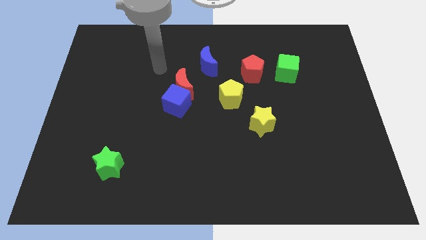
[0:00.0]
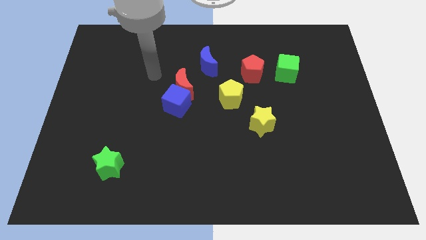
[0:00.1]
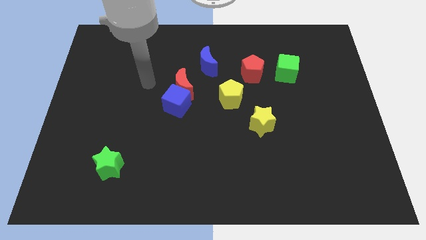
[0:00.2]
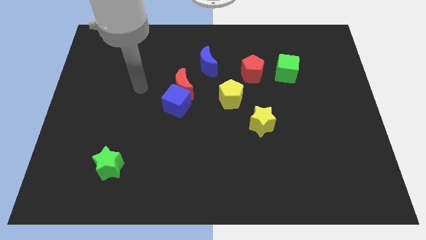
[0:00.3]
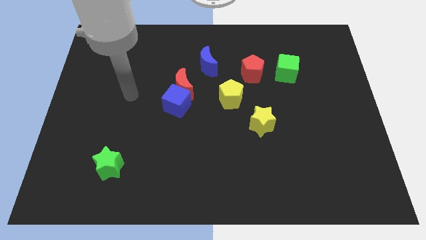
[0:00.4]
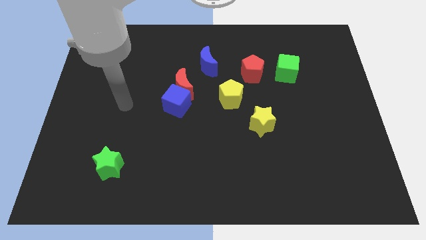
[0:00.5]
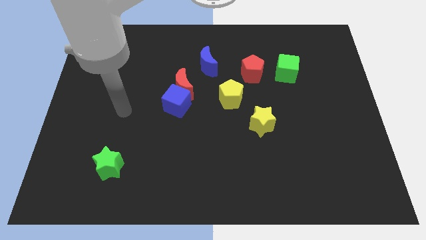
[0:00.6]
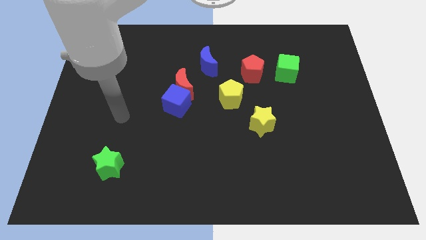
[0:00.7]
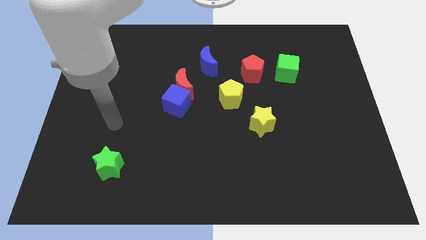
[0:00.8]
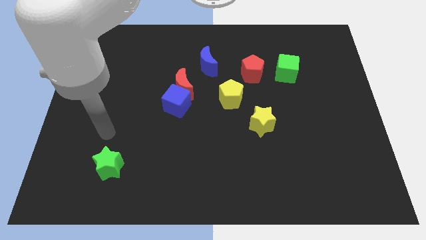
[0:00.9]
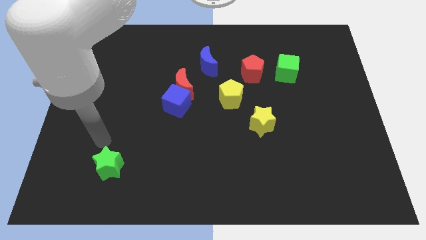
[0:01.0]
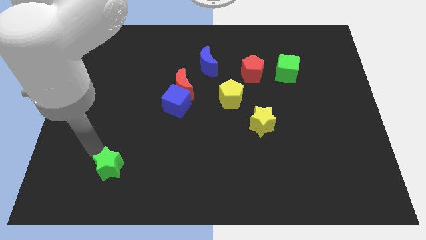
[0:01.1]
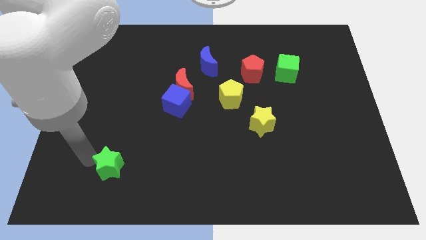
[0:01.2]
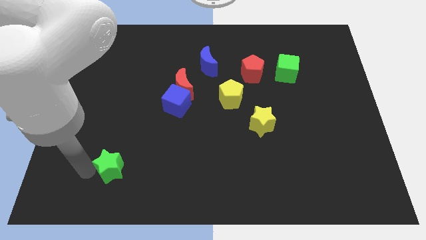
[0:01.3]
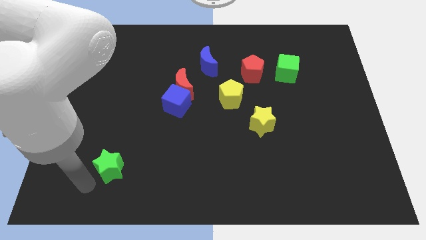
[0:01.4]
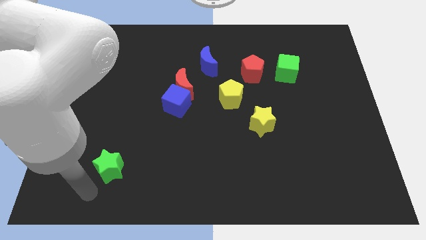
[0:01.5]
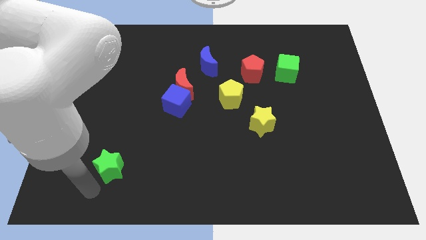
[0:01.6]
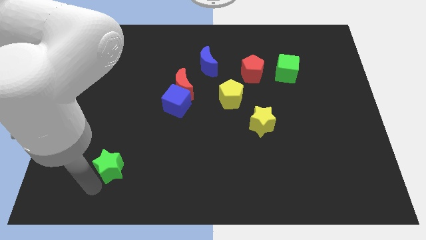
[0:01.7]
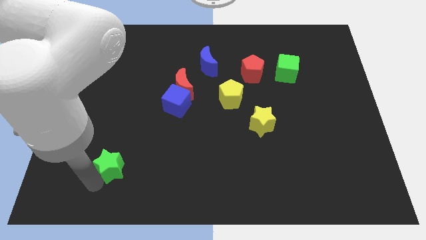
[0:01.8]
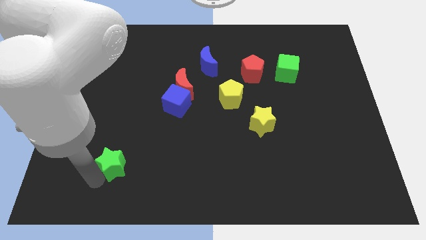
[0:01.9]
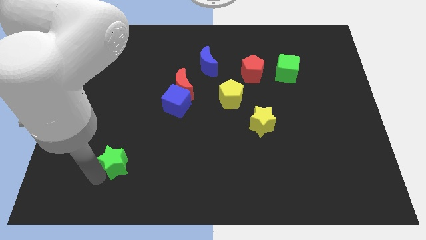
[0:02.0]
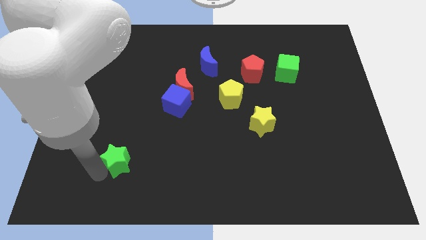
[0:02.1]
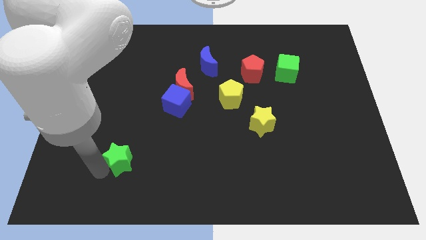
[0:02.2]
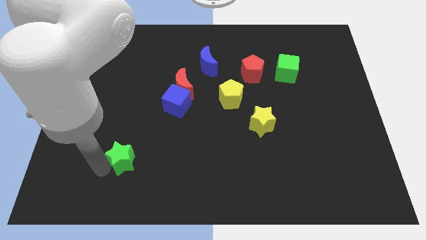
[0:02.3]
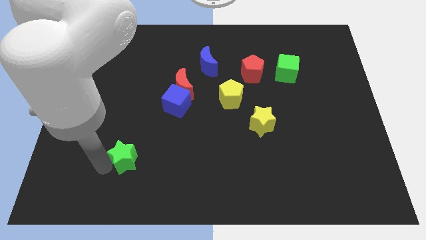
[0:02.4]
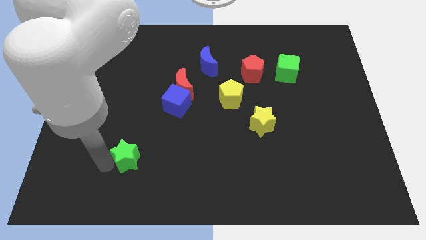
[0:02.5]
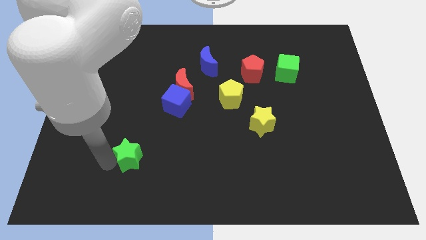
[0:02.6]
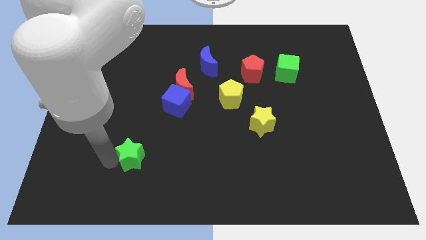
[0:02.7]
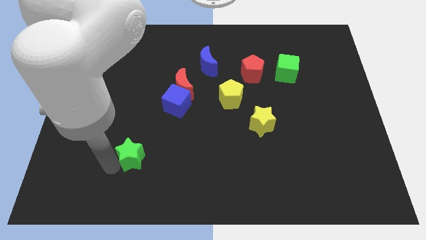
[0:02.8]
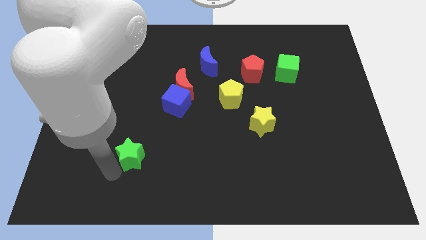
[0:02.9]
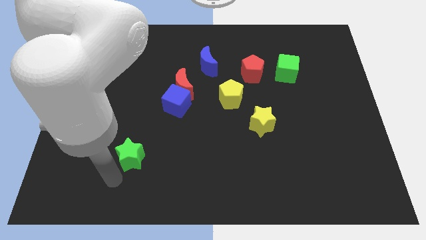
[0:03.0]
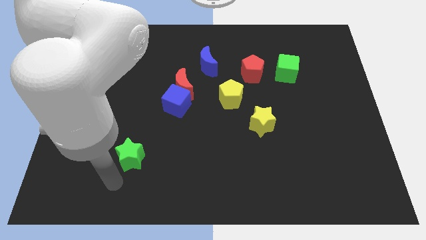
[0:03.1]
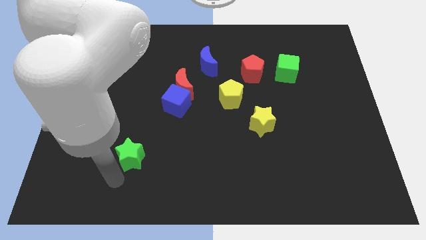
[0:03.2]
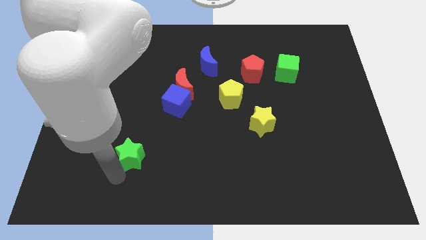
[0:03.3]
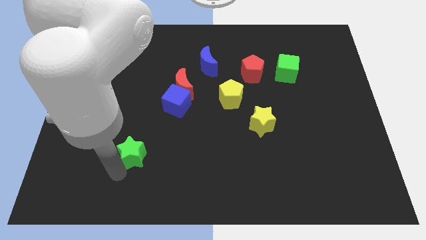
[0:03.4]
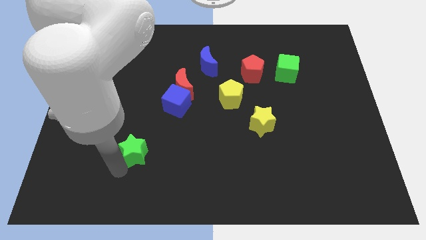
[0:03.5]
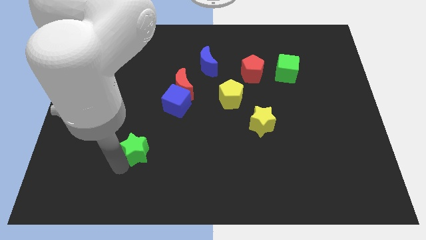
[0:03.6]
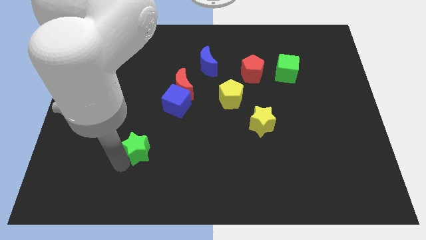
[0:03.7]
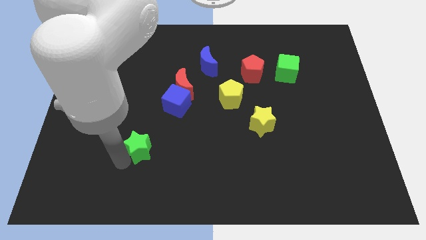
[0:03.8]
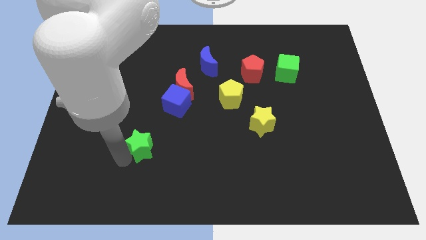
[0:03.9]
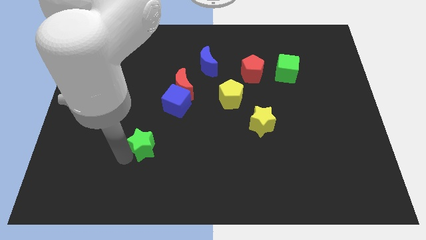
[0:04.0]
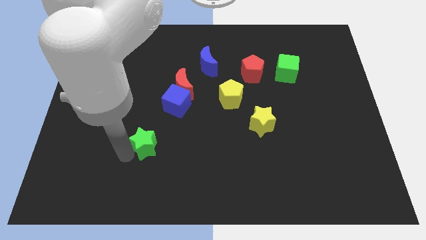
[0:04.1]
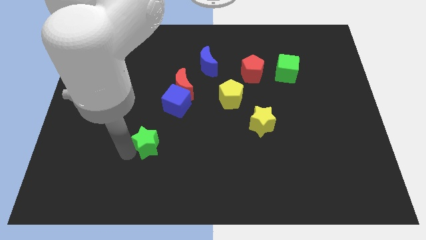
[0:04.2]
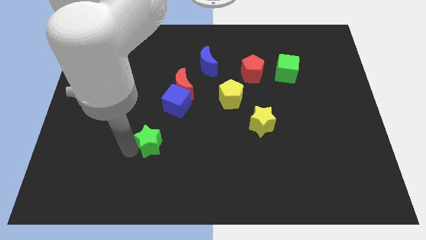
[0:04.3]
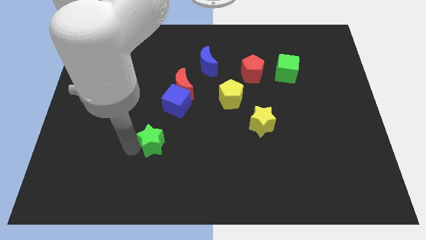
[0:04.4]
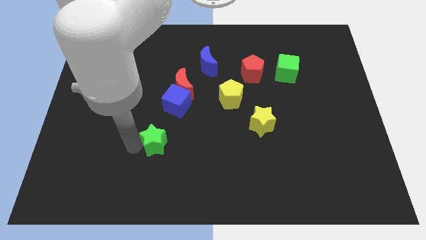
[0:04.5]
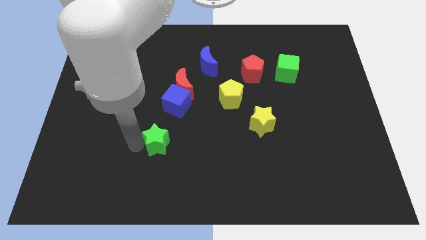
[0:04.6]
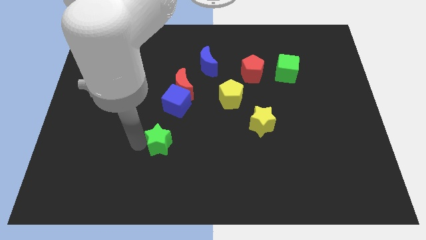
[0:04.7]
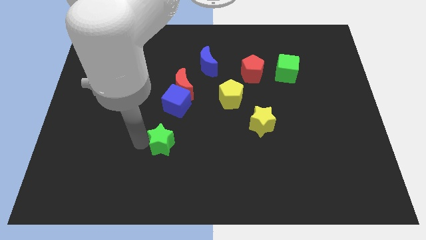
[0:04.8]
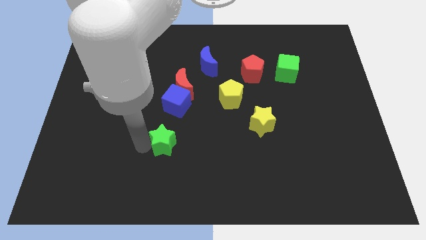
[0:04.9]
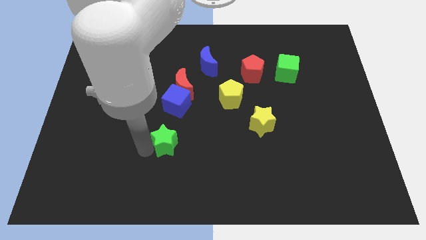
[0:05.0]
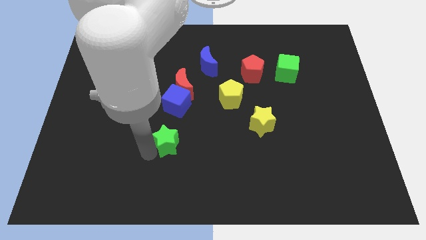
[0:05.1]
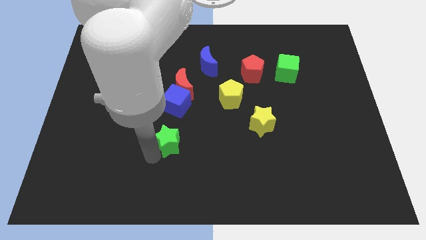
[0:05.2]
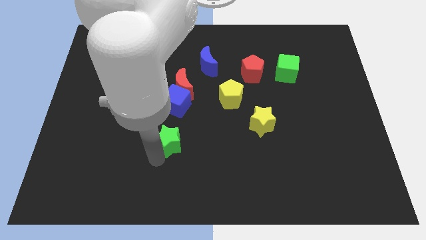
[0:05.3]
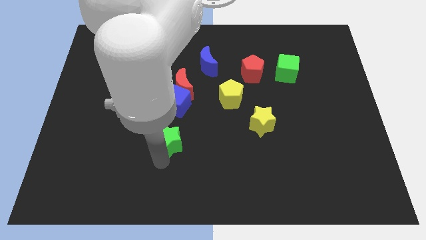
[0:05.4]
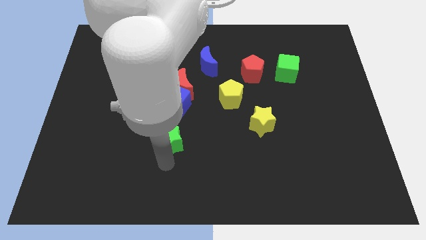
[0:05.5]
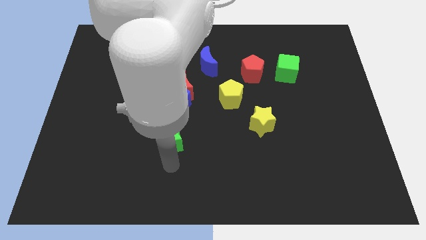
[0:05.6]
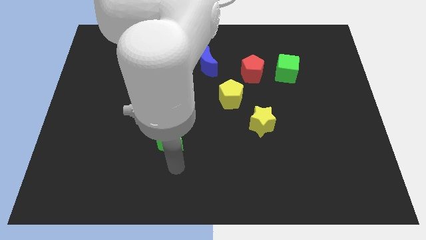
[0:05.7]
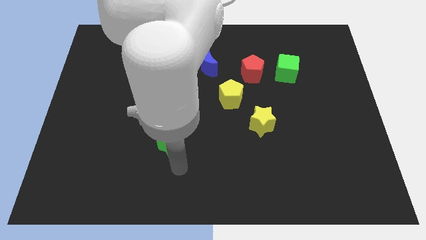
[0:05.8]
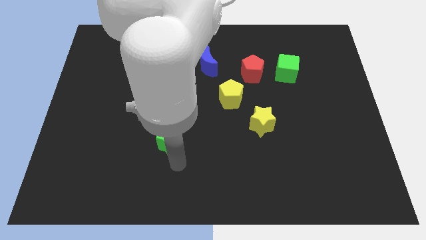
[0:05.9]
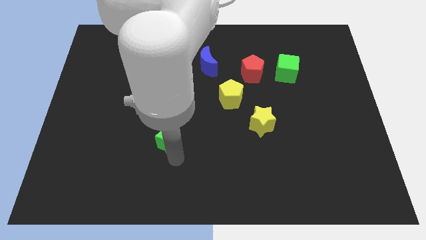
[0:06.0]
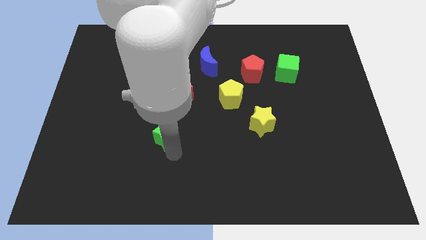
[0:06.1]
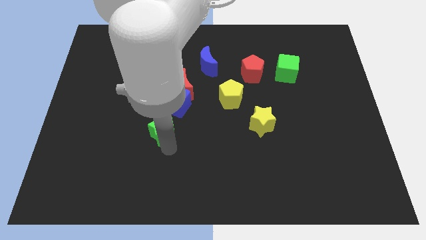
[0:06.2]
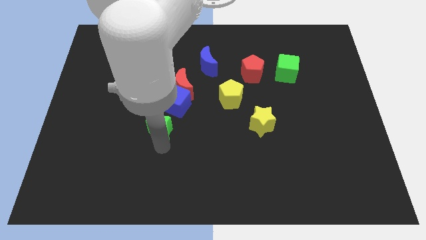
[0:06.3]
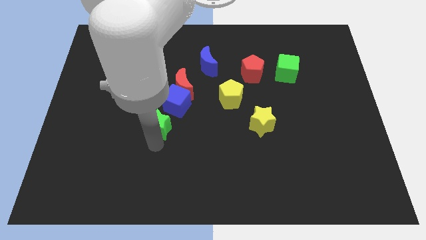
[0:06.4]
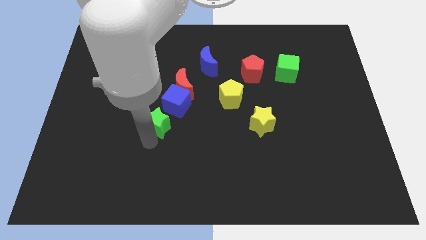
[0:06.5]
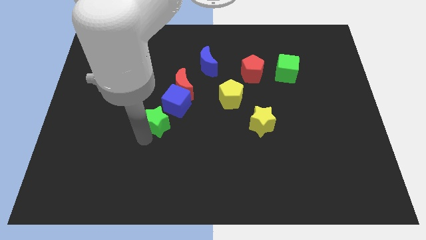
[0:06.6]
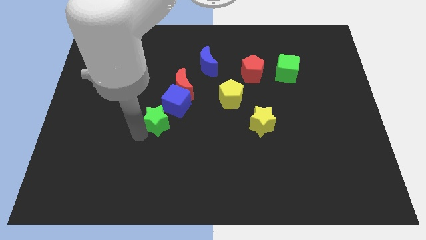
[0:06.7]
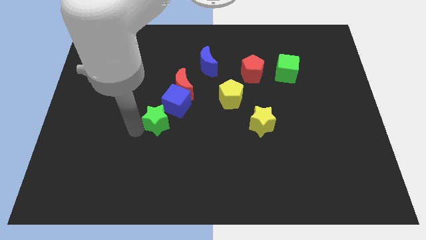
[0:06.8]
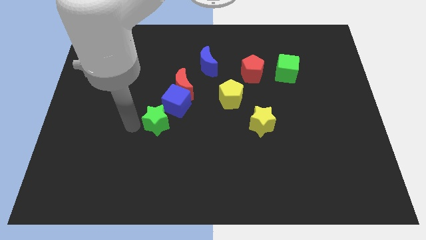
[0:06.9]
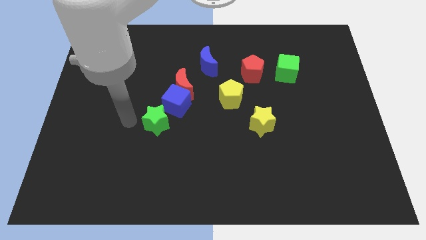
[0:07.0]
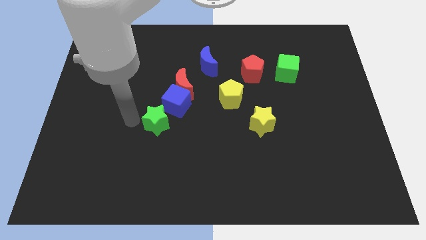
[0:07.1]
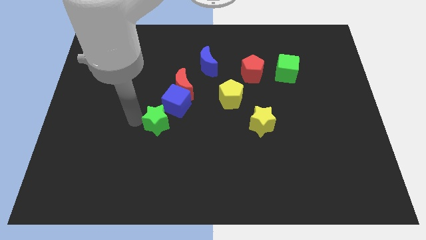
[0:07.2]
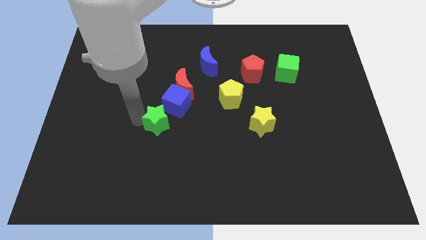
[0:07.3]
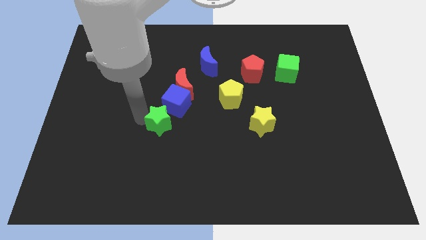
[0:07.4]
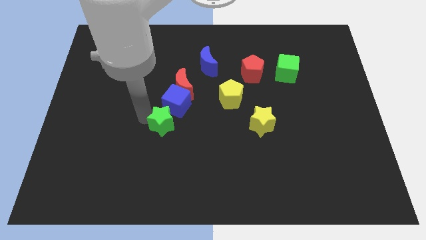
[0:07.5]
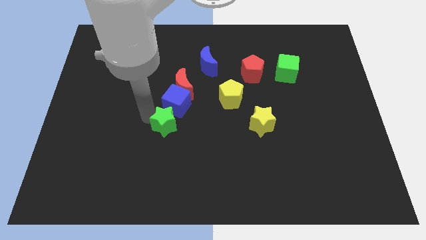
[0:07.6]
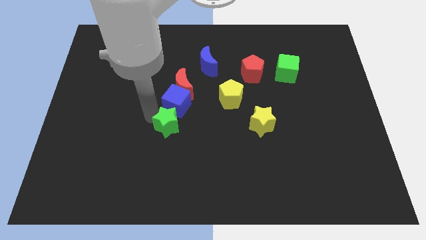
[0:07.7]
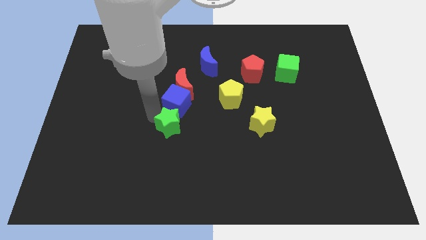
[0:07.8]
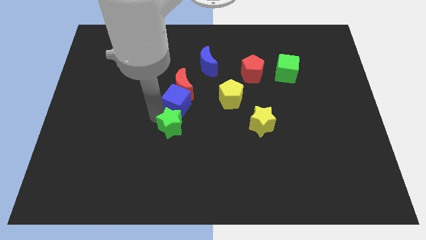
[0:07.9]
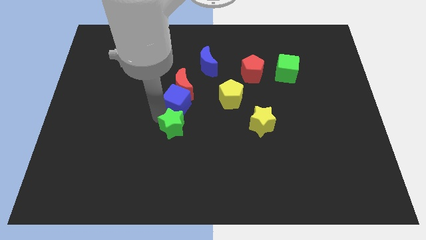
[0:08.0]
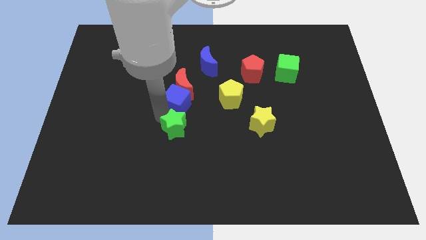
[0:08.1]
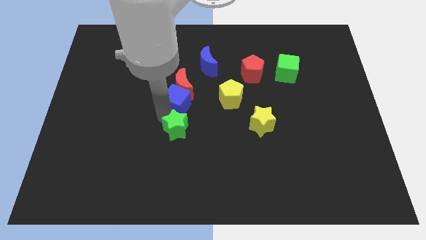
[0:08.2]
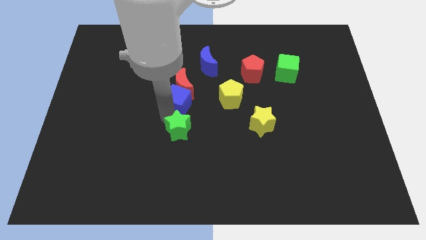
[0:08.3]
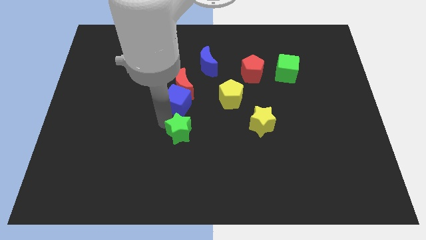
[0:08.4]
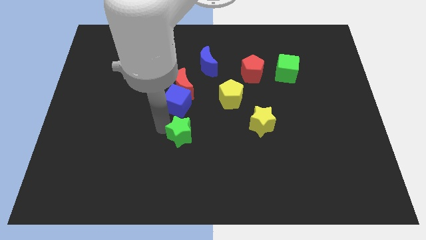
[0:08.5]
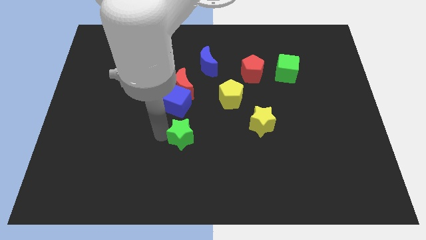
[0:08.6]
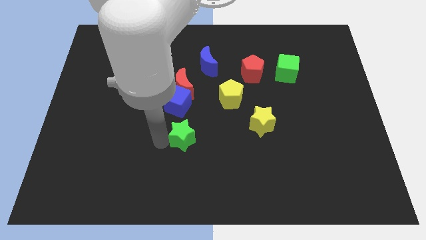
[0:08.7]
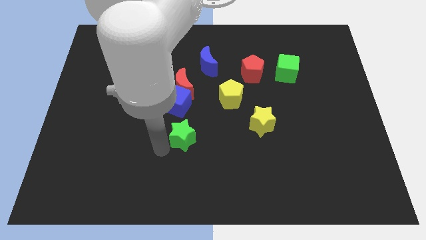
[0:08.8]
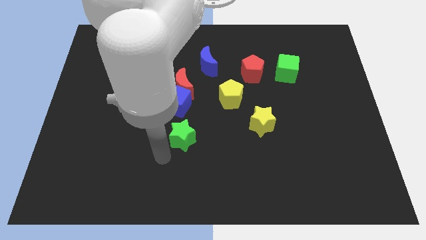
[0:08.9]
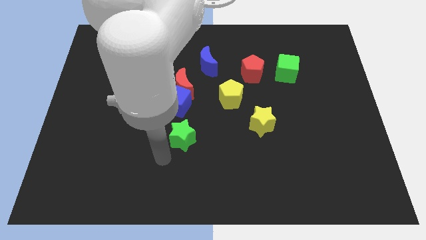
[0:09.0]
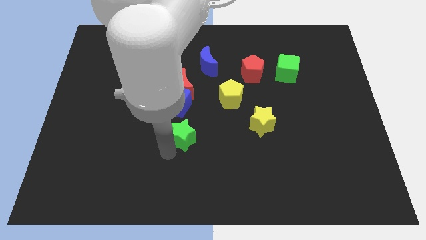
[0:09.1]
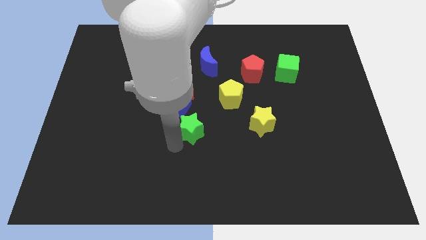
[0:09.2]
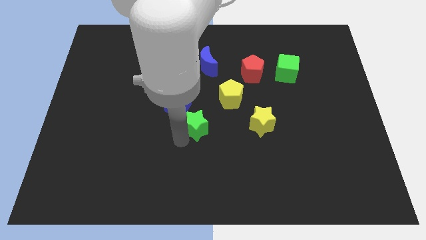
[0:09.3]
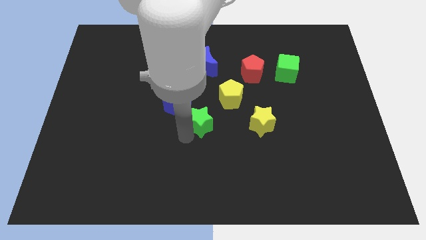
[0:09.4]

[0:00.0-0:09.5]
move the green star upwards and then to the right
